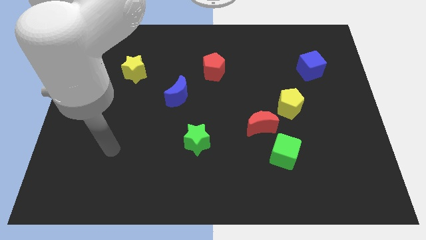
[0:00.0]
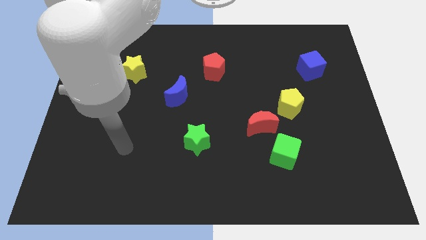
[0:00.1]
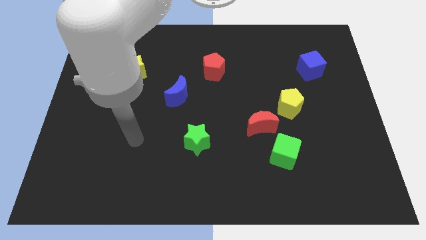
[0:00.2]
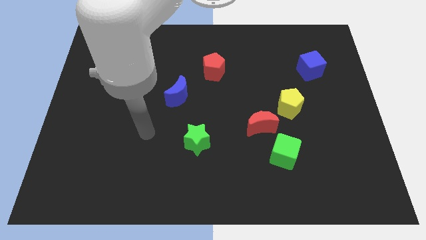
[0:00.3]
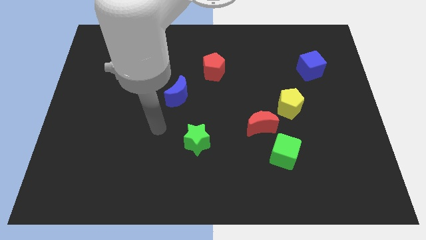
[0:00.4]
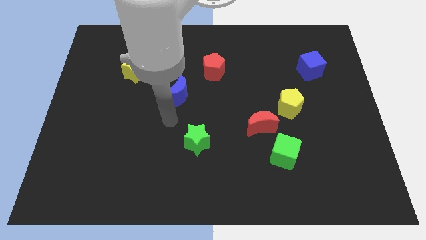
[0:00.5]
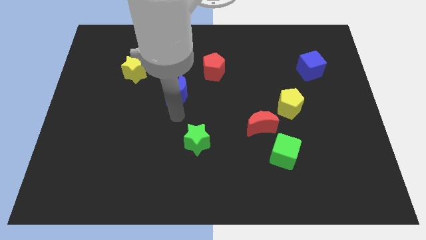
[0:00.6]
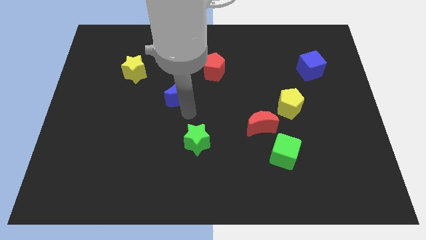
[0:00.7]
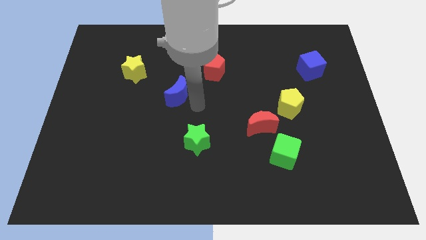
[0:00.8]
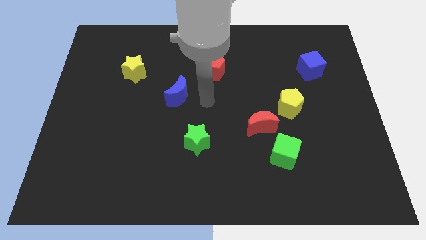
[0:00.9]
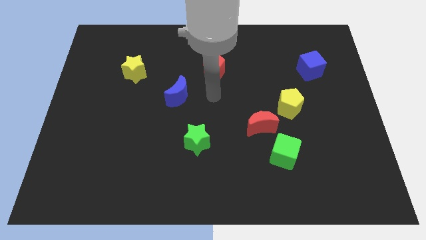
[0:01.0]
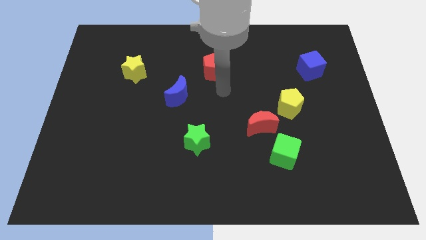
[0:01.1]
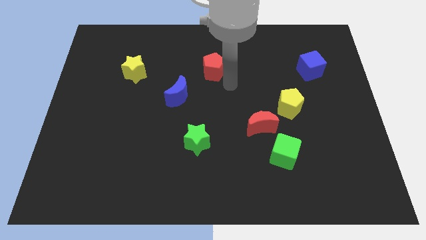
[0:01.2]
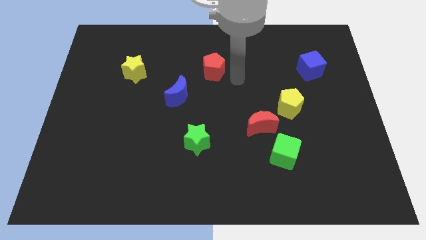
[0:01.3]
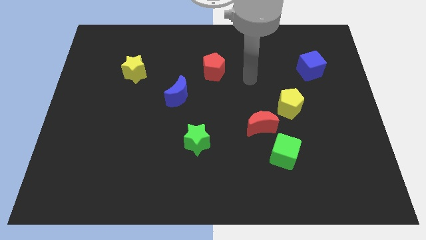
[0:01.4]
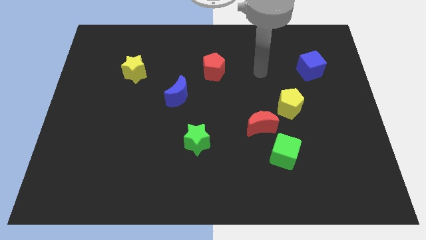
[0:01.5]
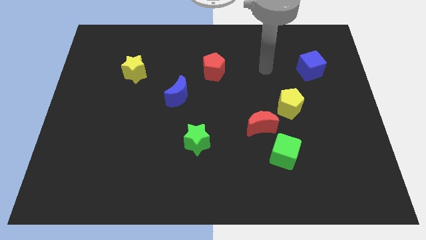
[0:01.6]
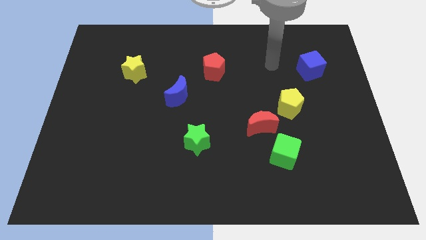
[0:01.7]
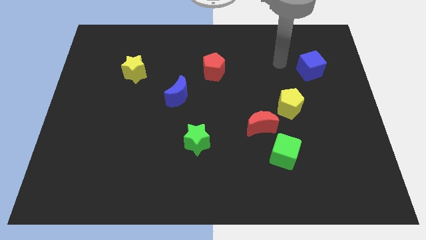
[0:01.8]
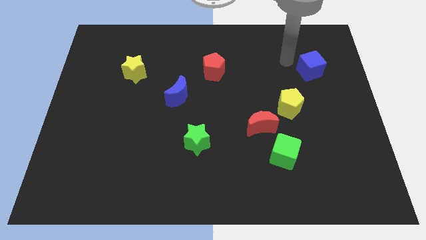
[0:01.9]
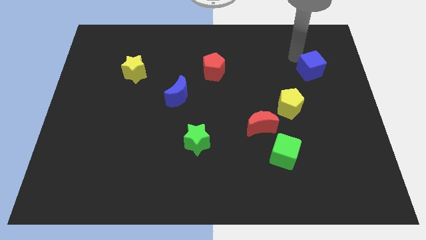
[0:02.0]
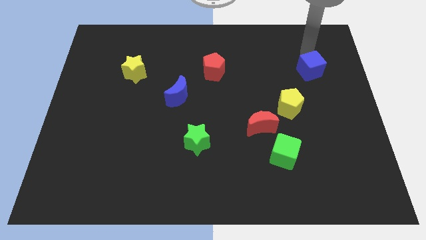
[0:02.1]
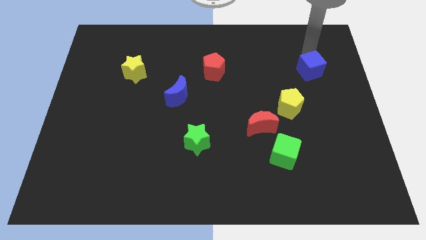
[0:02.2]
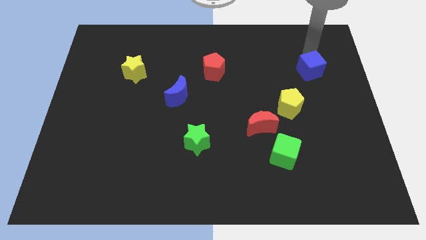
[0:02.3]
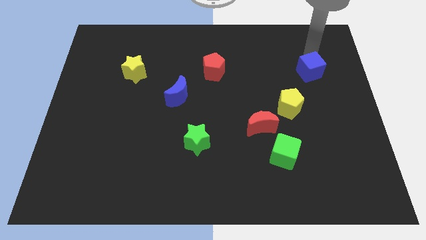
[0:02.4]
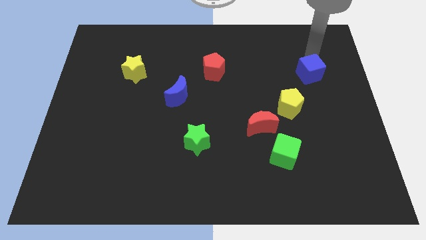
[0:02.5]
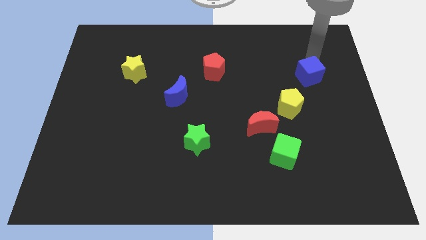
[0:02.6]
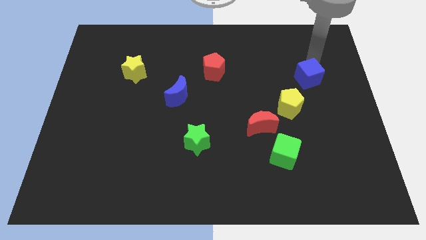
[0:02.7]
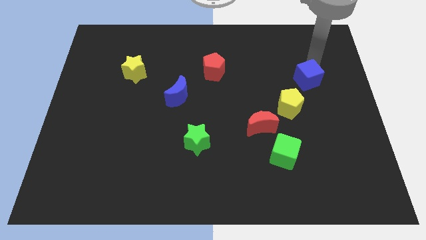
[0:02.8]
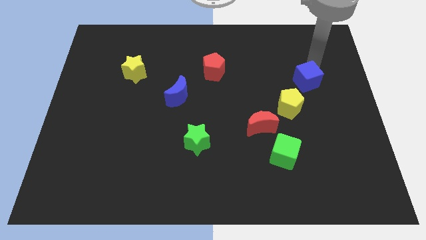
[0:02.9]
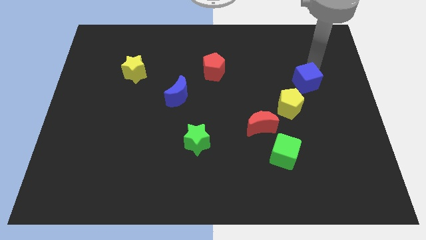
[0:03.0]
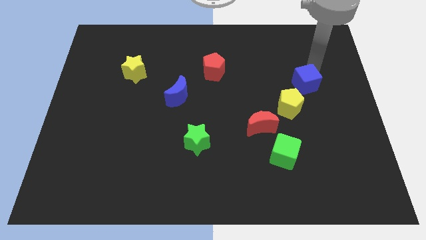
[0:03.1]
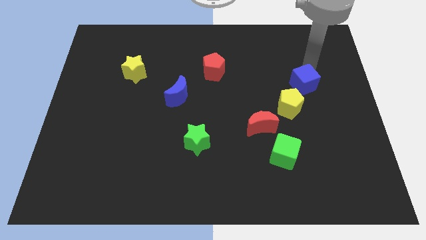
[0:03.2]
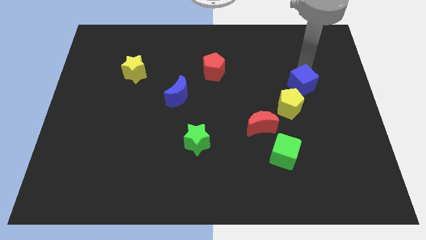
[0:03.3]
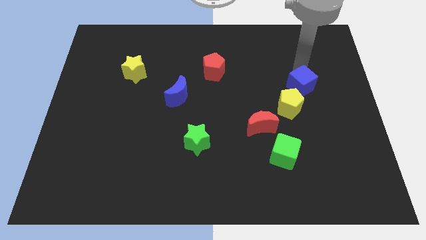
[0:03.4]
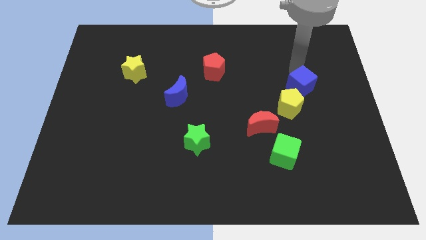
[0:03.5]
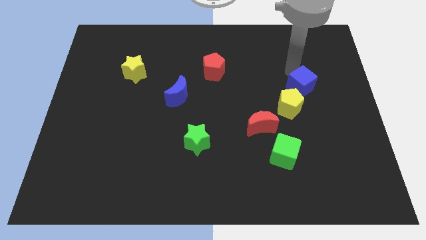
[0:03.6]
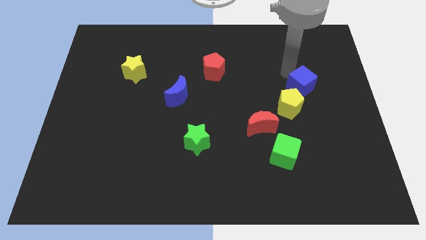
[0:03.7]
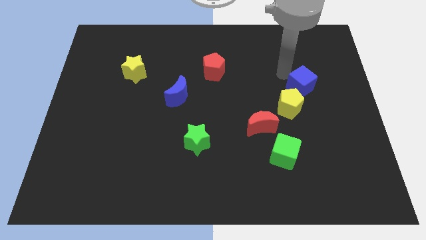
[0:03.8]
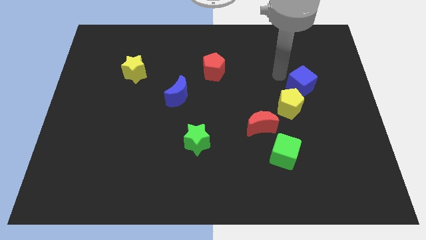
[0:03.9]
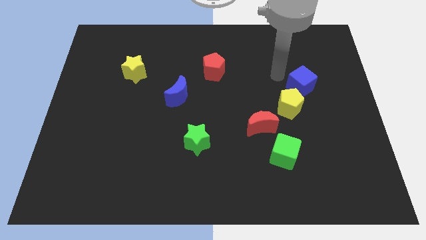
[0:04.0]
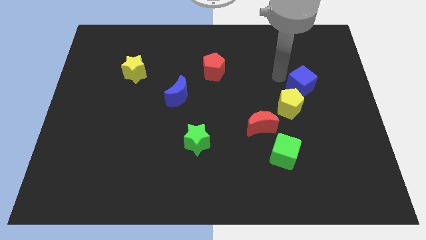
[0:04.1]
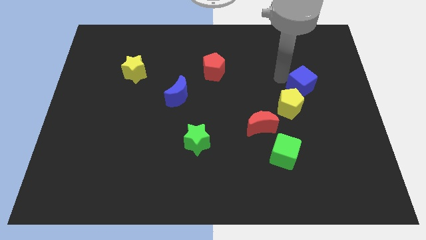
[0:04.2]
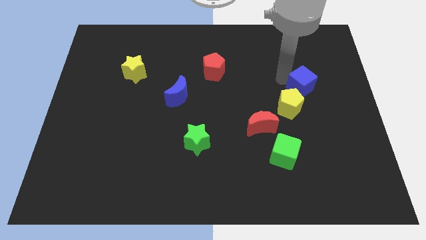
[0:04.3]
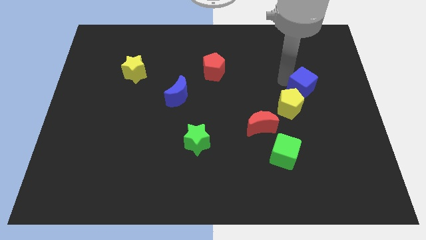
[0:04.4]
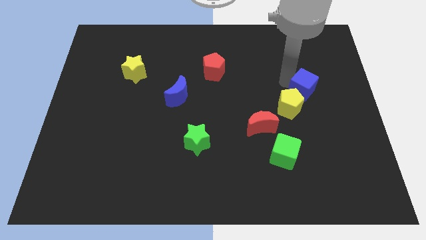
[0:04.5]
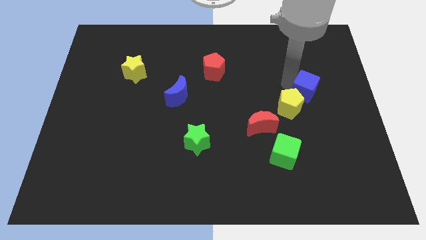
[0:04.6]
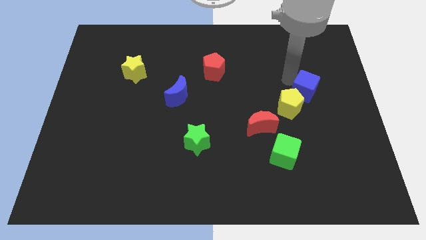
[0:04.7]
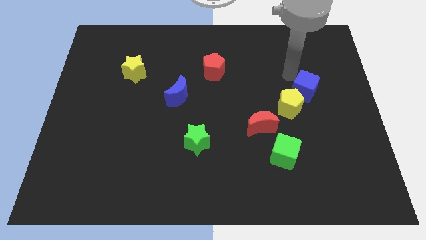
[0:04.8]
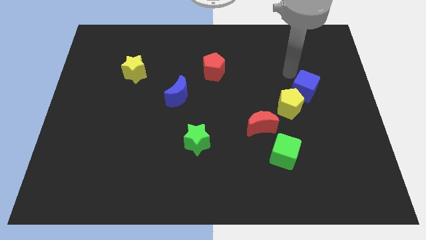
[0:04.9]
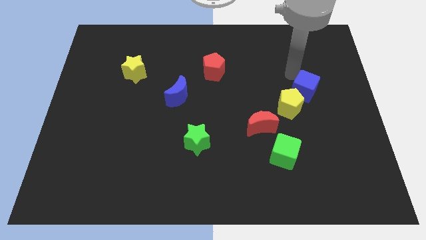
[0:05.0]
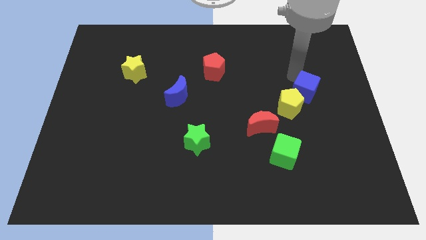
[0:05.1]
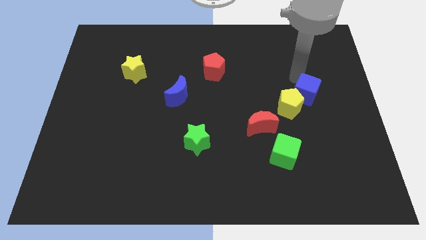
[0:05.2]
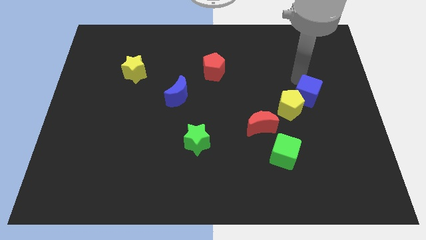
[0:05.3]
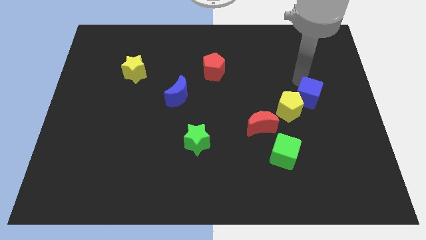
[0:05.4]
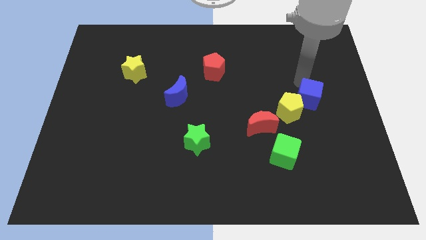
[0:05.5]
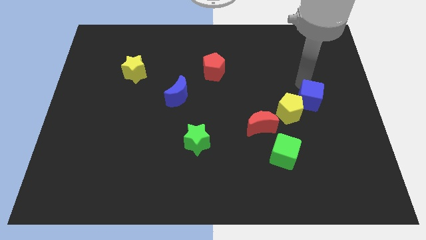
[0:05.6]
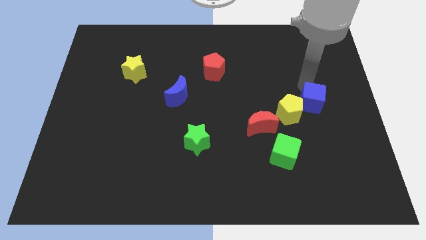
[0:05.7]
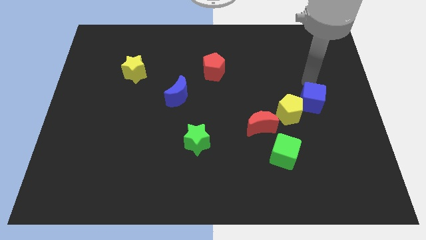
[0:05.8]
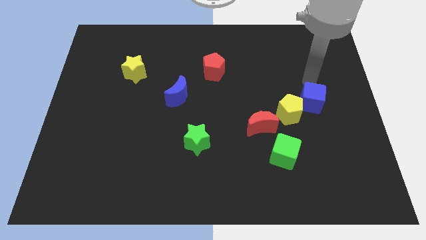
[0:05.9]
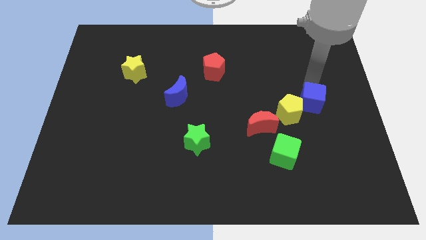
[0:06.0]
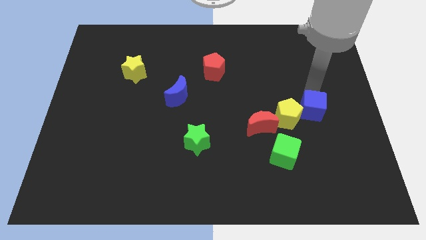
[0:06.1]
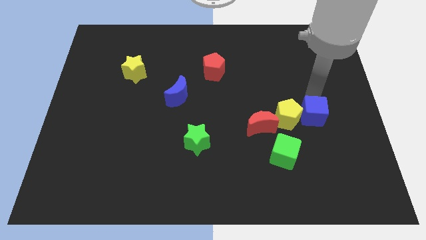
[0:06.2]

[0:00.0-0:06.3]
slide the blue cube to the bottom right side of the yellow pentagon

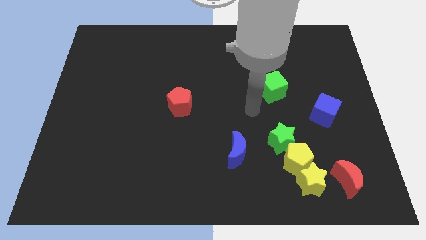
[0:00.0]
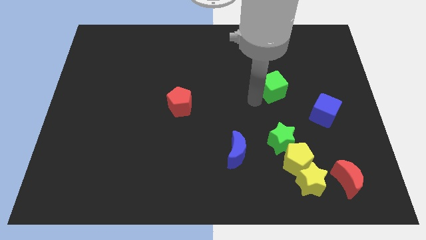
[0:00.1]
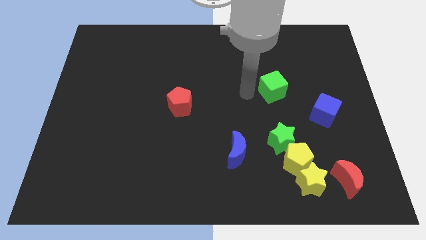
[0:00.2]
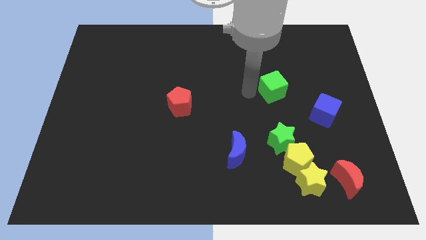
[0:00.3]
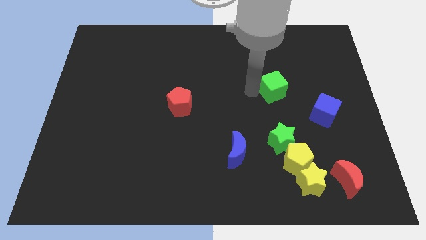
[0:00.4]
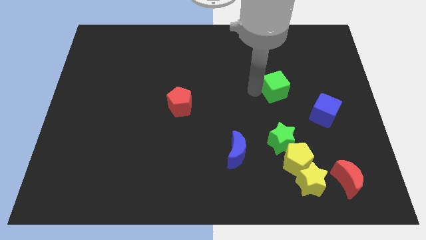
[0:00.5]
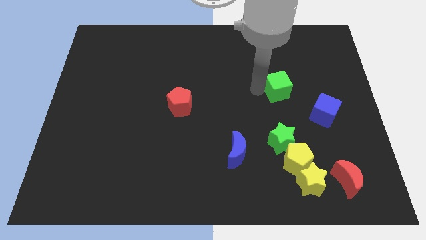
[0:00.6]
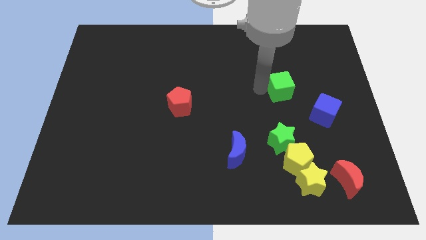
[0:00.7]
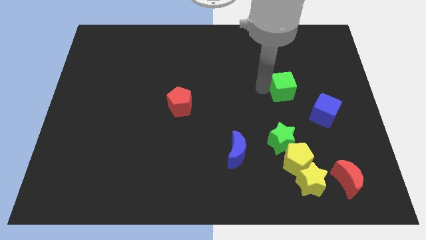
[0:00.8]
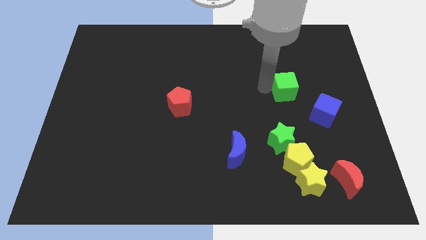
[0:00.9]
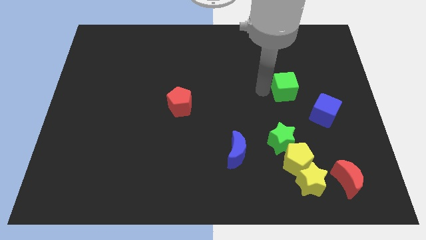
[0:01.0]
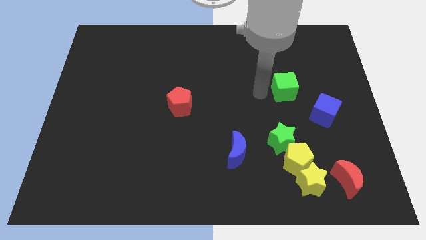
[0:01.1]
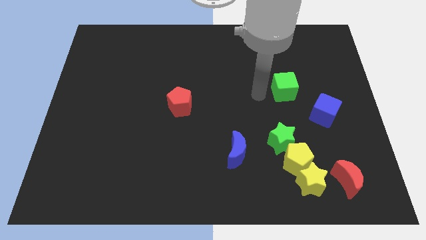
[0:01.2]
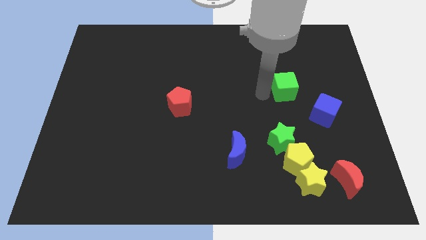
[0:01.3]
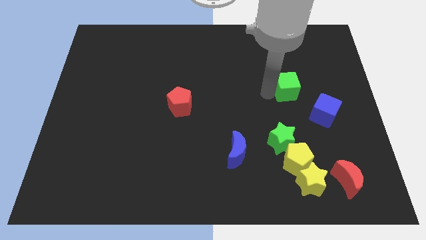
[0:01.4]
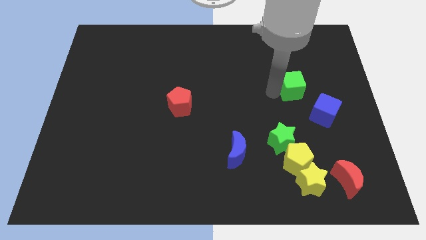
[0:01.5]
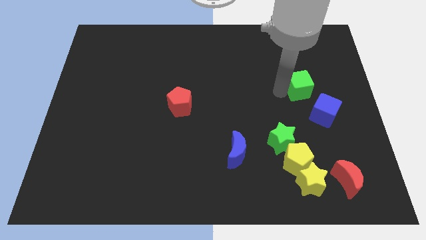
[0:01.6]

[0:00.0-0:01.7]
slide the green cube to the top side of the blue cube
